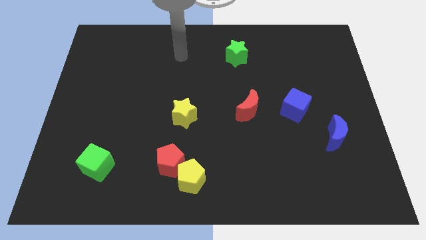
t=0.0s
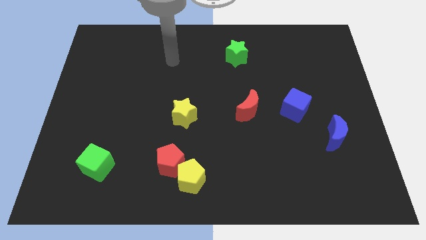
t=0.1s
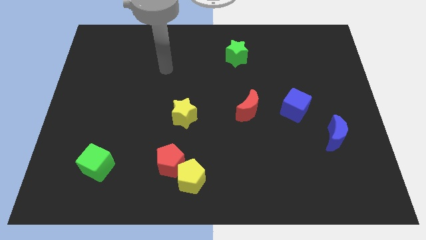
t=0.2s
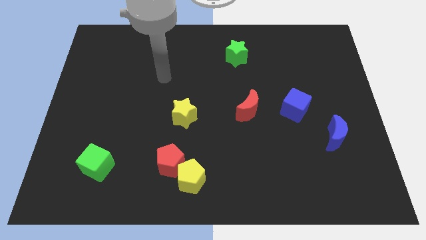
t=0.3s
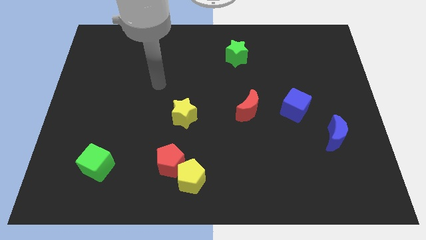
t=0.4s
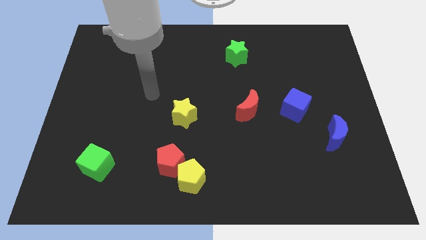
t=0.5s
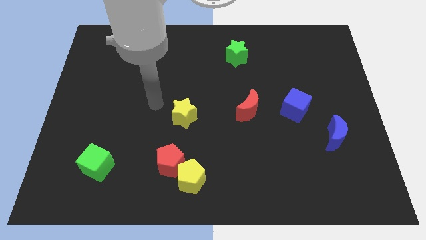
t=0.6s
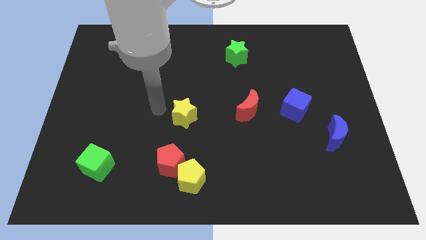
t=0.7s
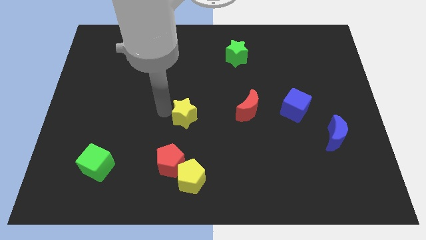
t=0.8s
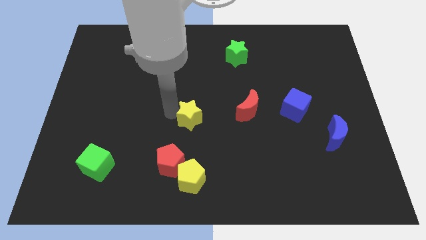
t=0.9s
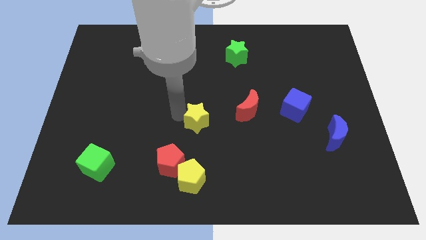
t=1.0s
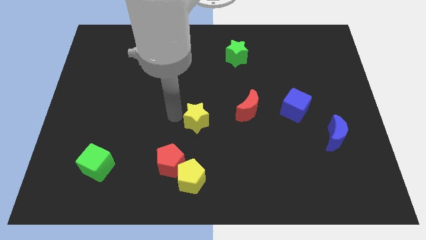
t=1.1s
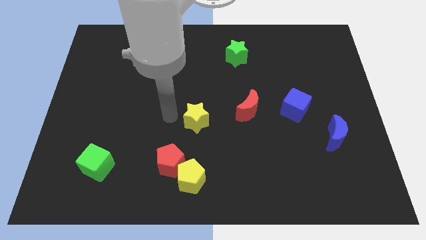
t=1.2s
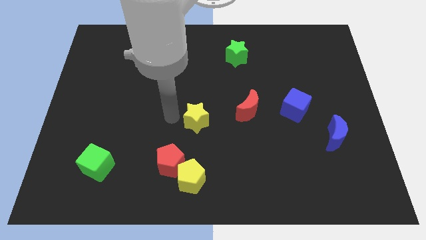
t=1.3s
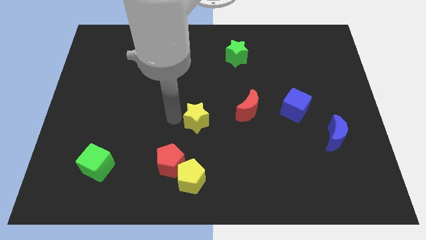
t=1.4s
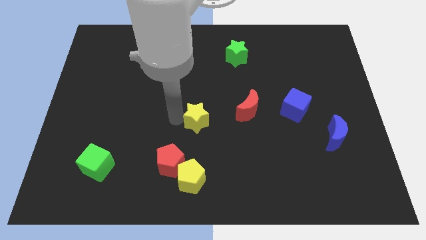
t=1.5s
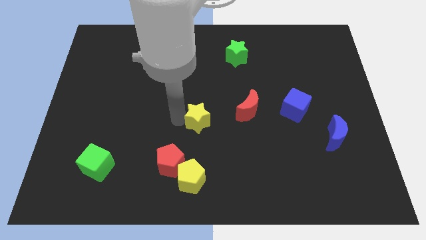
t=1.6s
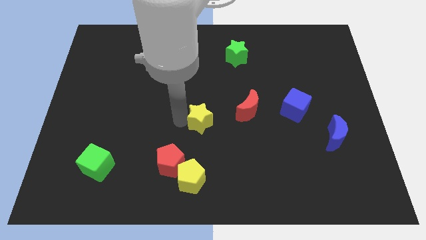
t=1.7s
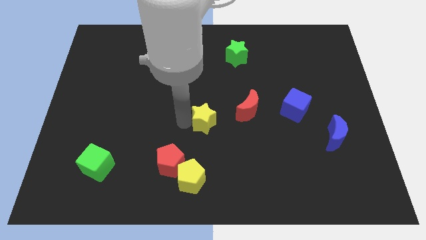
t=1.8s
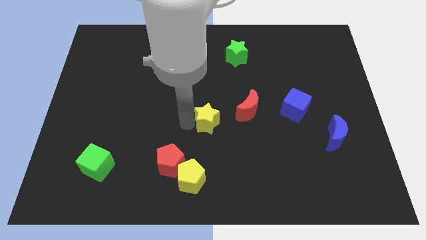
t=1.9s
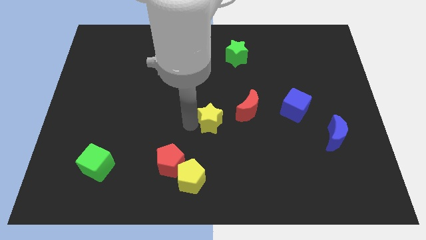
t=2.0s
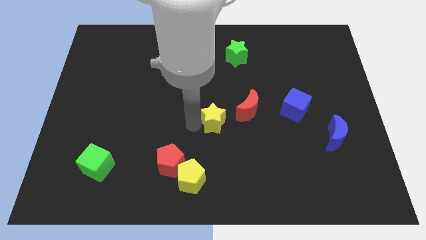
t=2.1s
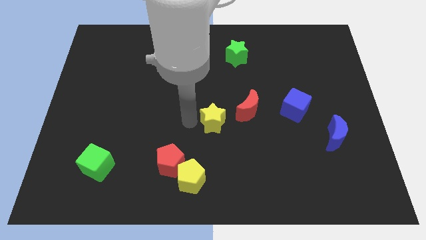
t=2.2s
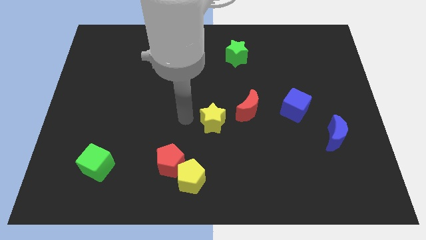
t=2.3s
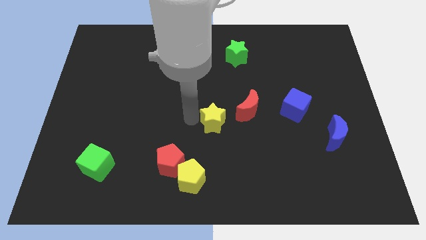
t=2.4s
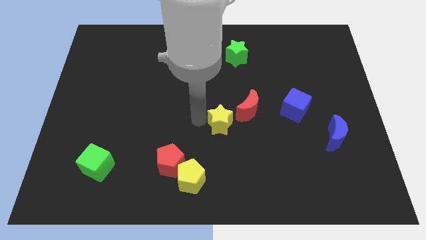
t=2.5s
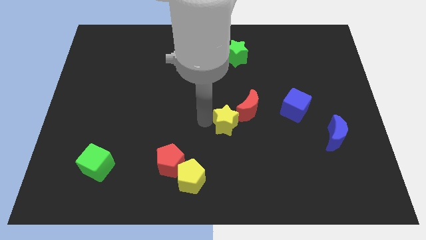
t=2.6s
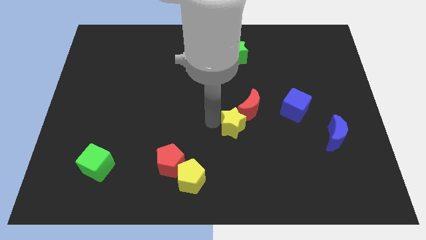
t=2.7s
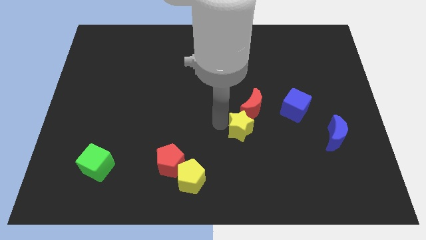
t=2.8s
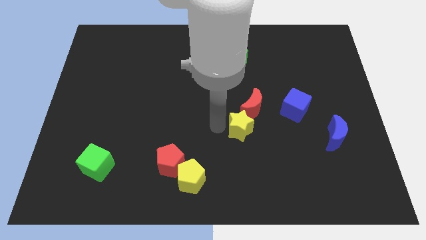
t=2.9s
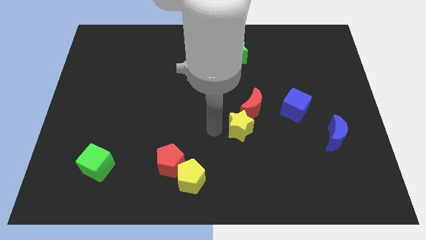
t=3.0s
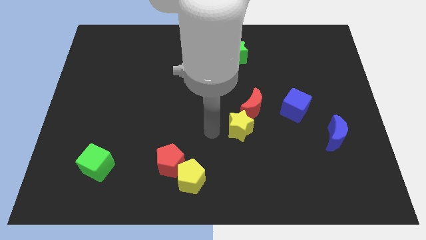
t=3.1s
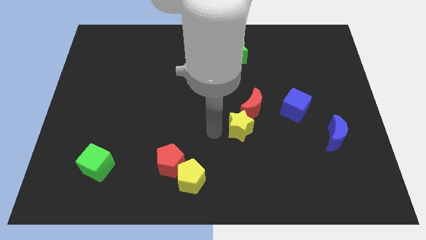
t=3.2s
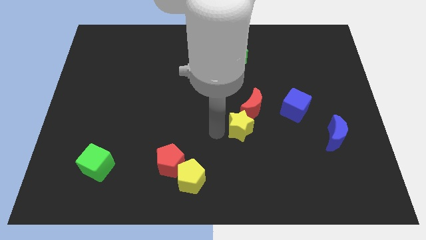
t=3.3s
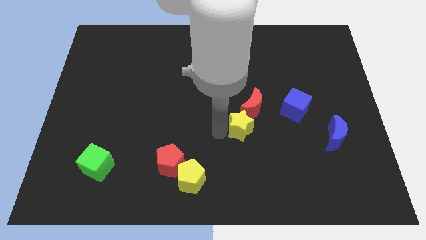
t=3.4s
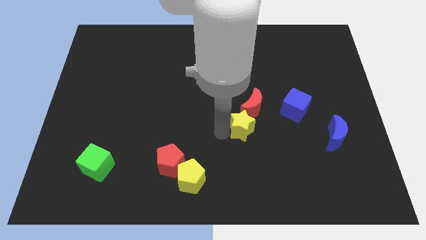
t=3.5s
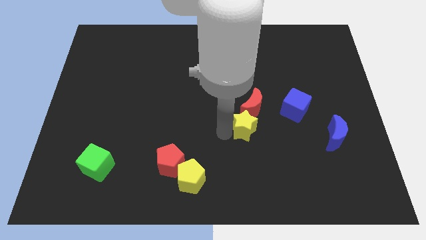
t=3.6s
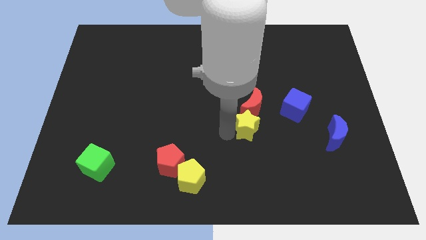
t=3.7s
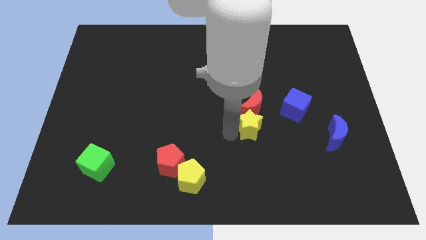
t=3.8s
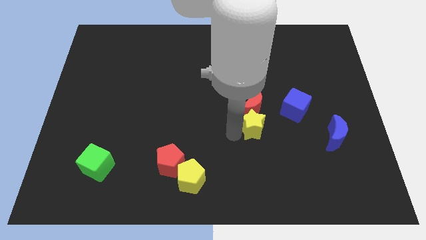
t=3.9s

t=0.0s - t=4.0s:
slide the yellow star diagonally down and to the left of the blue cube

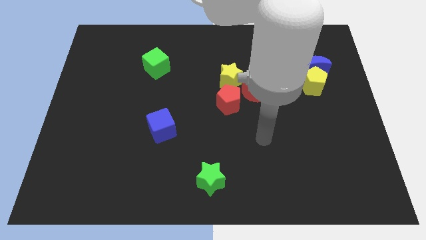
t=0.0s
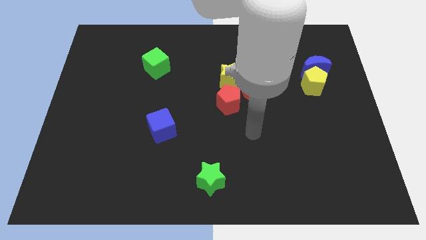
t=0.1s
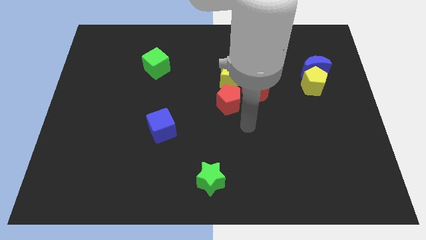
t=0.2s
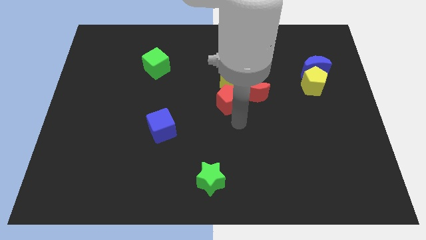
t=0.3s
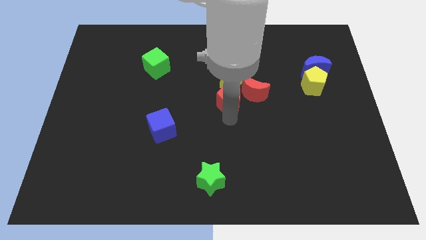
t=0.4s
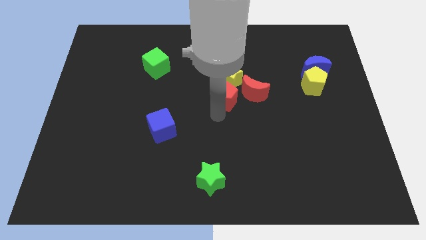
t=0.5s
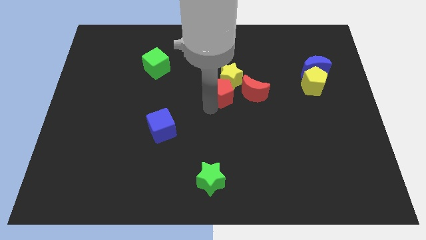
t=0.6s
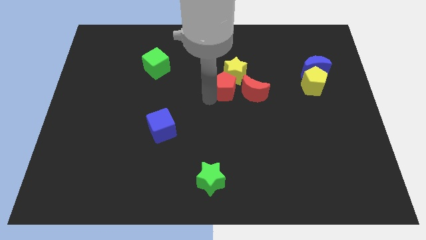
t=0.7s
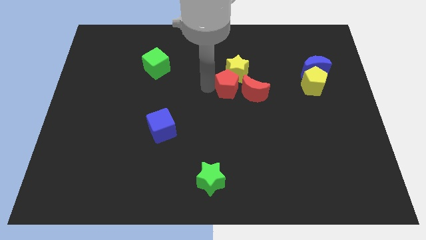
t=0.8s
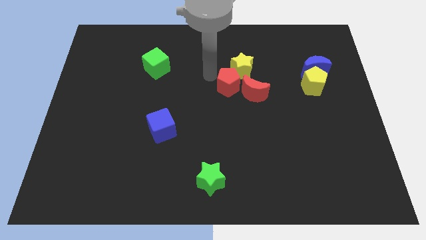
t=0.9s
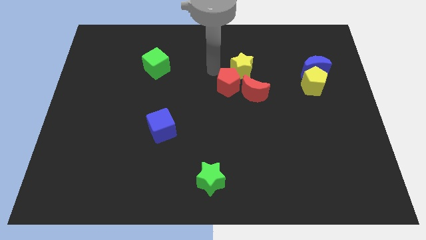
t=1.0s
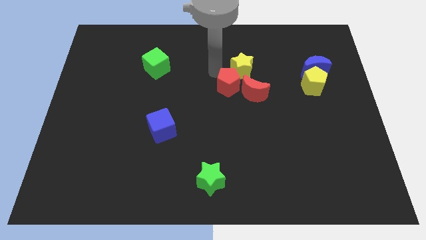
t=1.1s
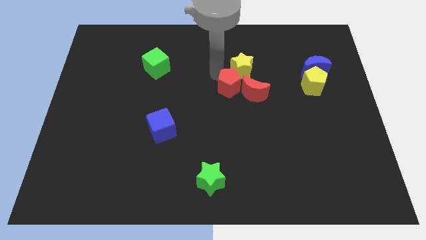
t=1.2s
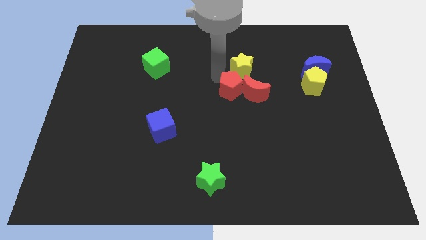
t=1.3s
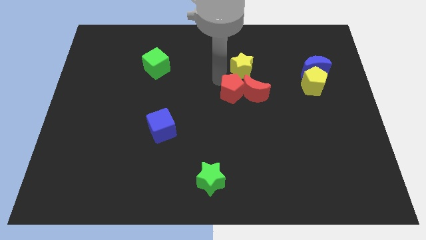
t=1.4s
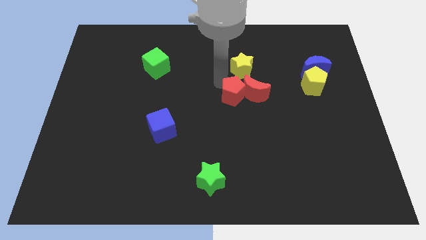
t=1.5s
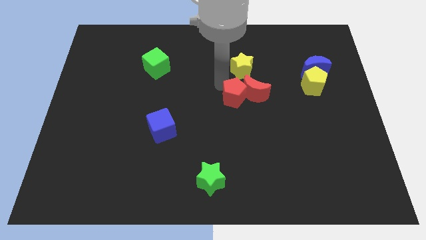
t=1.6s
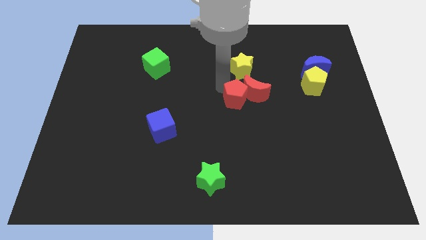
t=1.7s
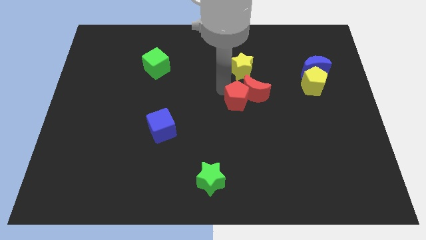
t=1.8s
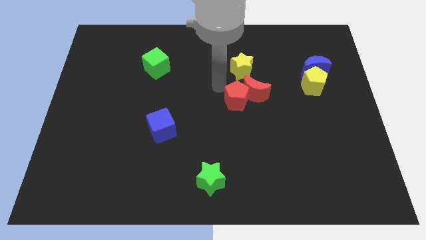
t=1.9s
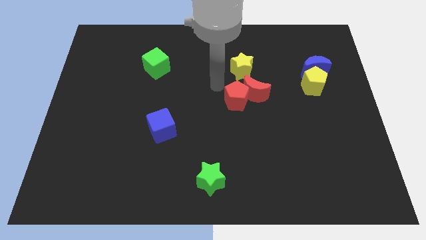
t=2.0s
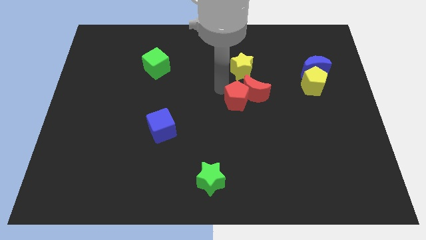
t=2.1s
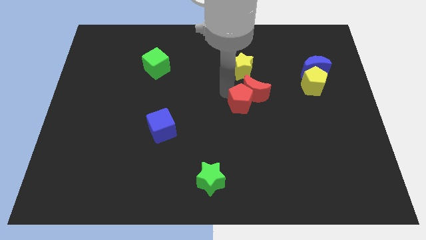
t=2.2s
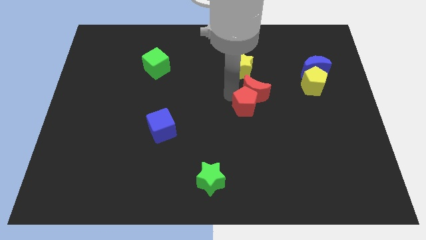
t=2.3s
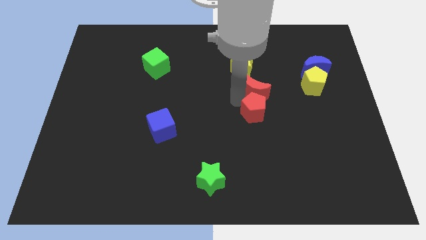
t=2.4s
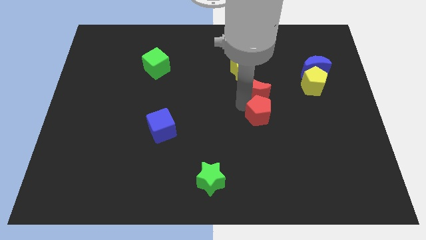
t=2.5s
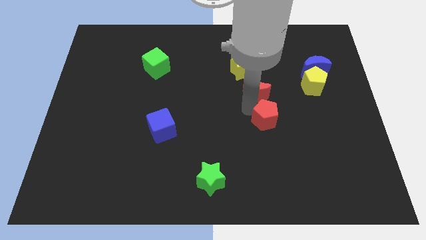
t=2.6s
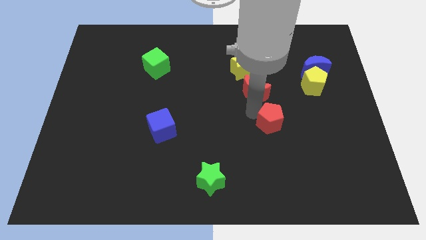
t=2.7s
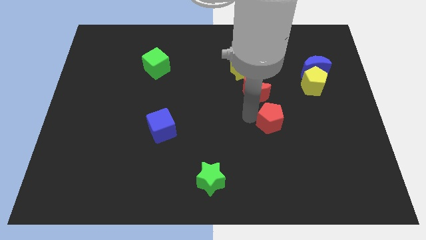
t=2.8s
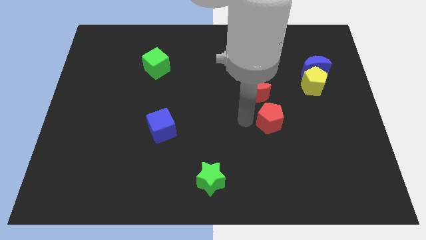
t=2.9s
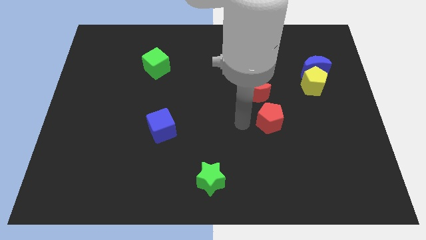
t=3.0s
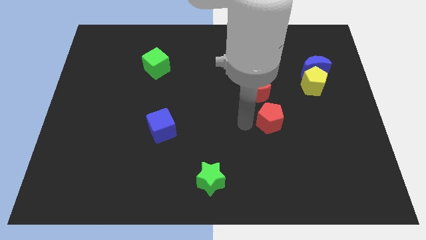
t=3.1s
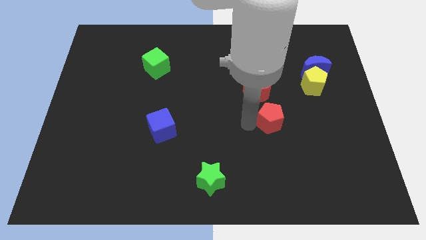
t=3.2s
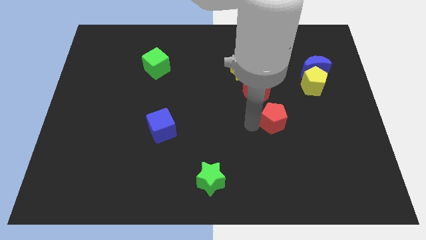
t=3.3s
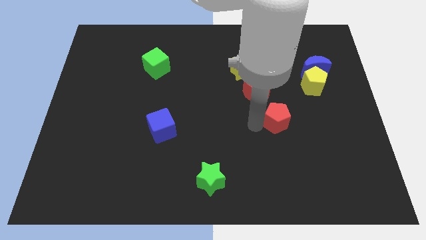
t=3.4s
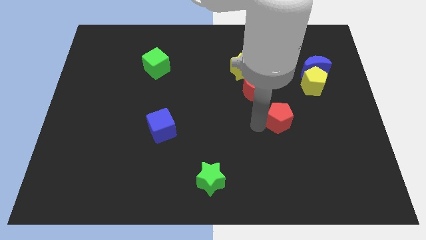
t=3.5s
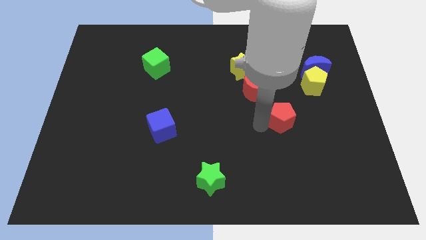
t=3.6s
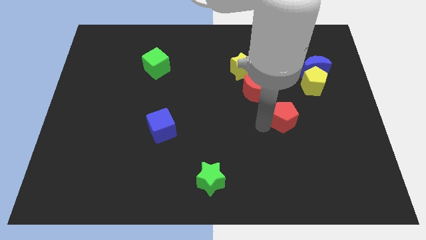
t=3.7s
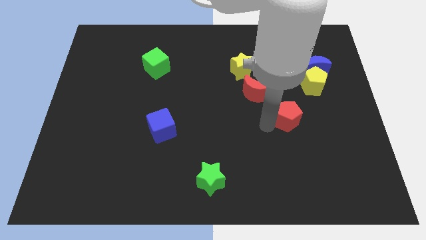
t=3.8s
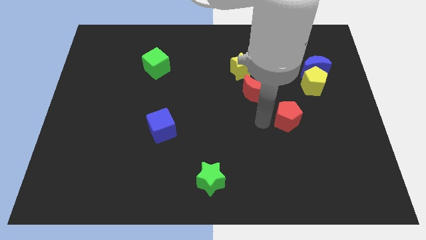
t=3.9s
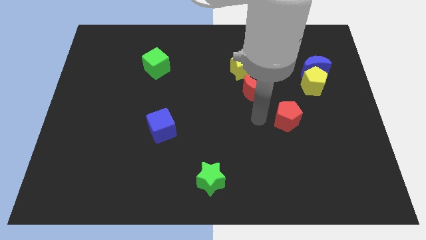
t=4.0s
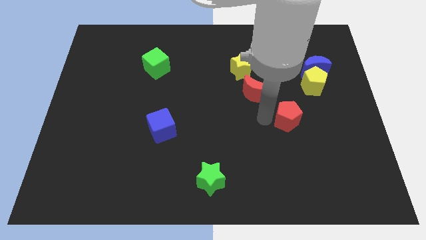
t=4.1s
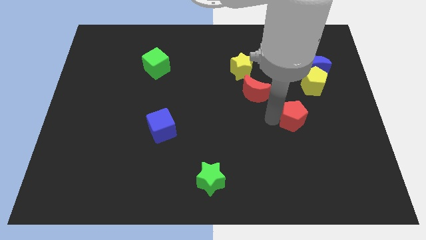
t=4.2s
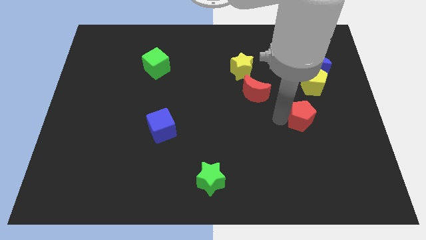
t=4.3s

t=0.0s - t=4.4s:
push the red pentagon to the bottom side of the yellow pentagon
